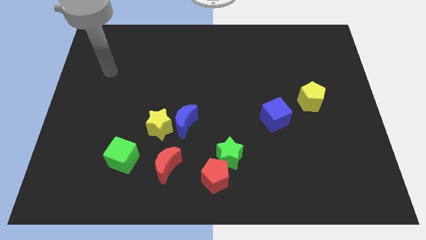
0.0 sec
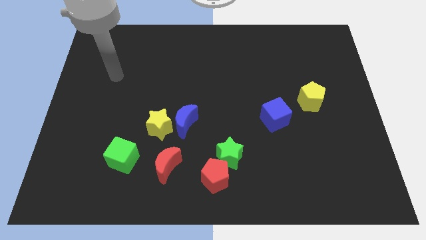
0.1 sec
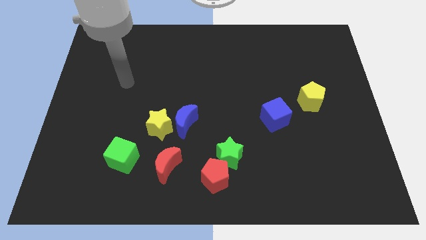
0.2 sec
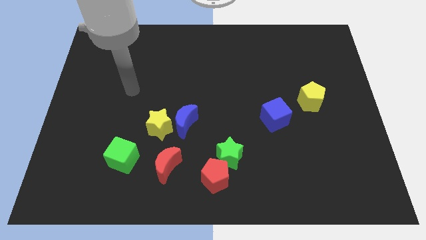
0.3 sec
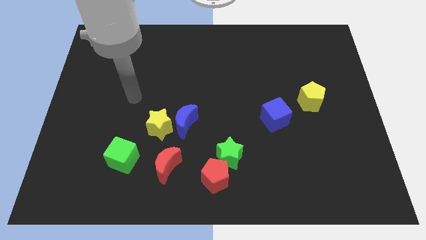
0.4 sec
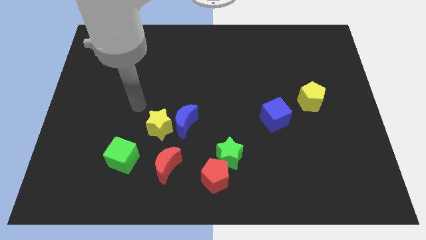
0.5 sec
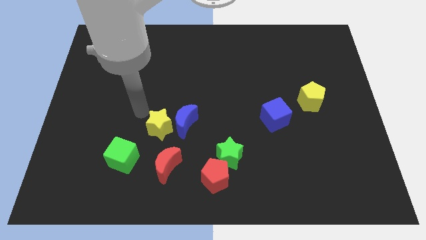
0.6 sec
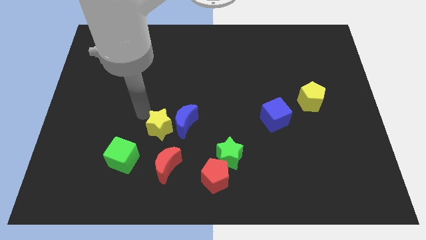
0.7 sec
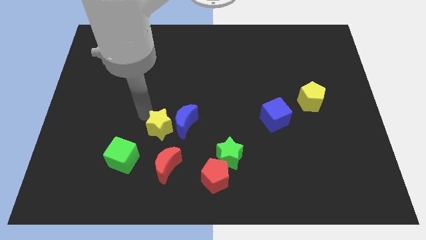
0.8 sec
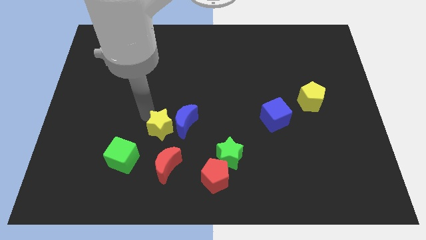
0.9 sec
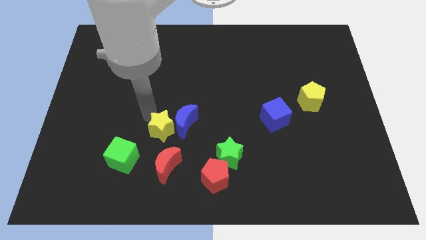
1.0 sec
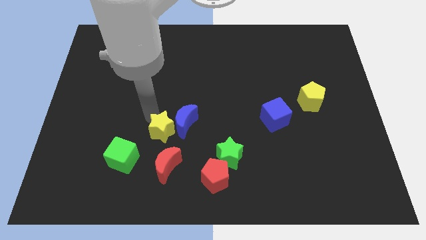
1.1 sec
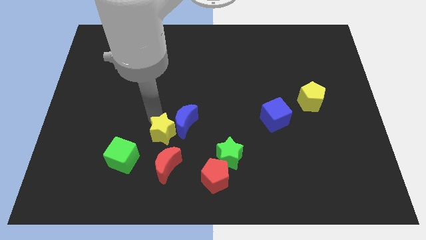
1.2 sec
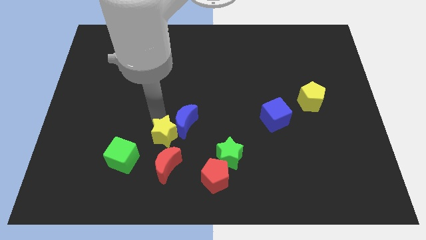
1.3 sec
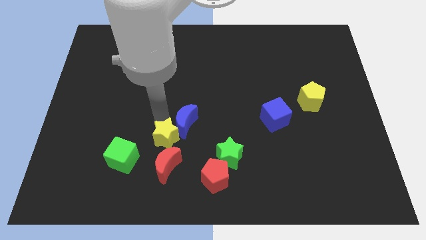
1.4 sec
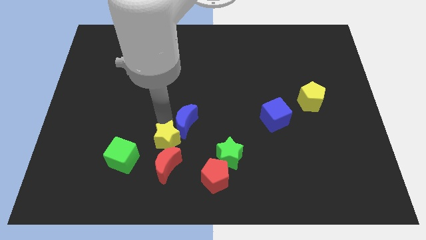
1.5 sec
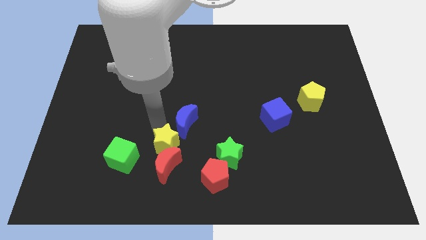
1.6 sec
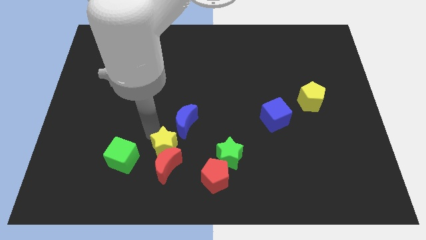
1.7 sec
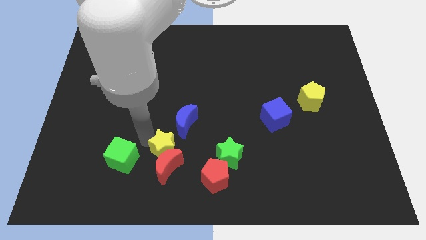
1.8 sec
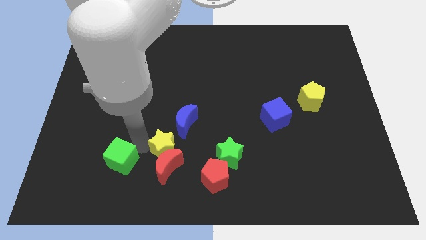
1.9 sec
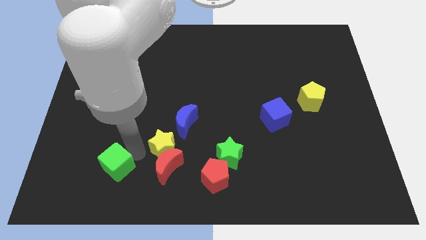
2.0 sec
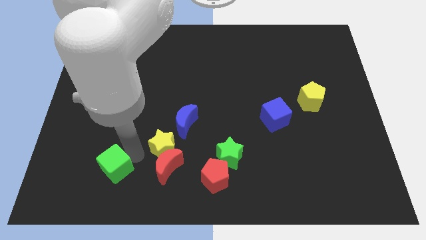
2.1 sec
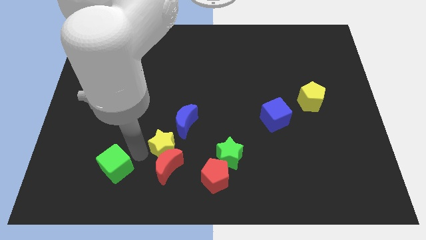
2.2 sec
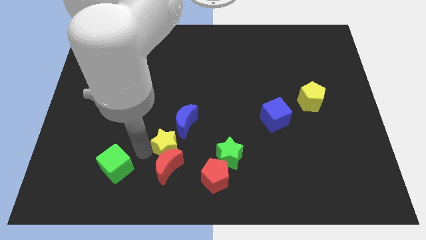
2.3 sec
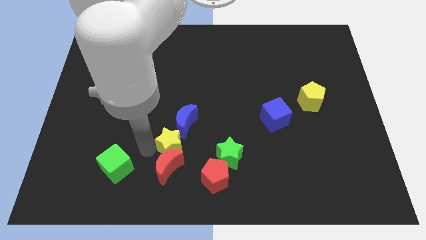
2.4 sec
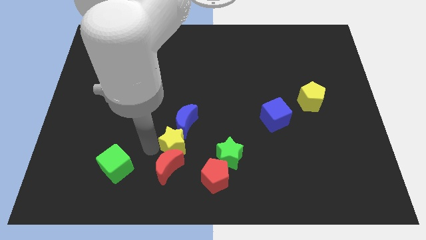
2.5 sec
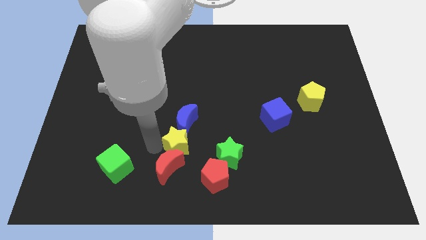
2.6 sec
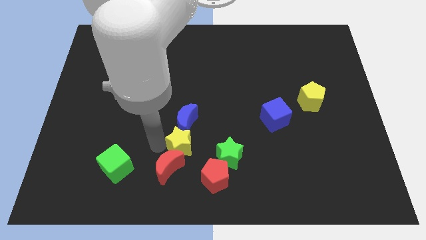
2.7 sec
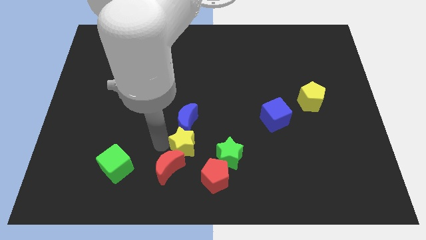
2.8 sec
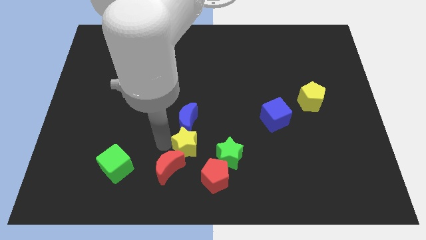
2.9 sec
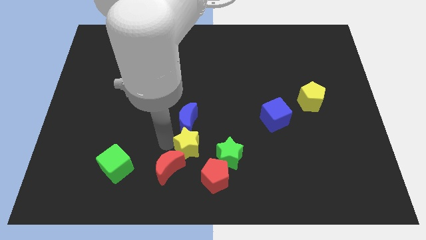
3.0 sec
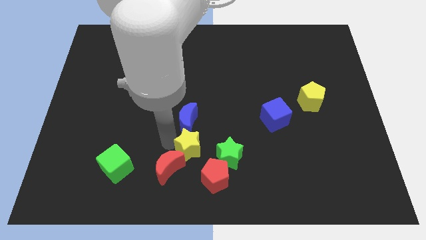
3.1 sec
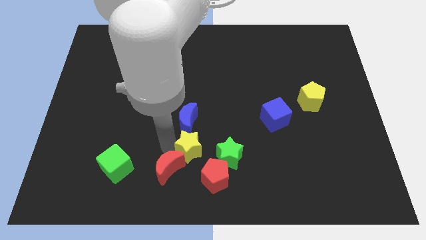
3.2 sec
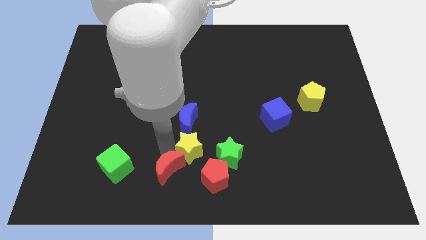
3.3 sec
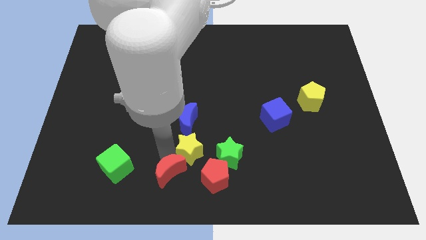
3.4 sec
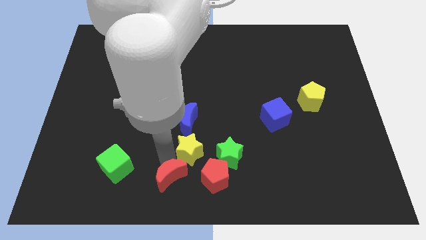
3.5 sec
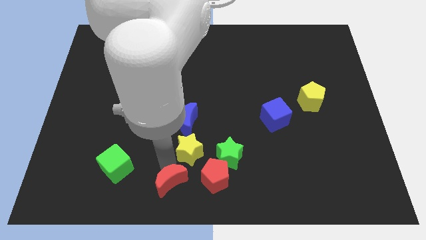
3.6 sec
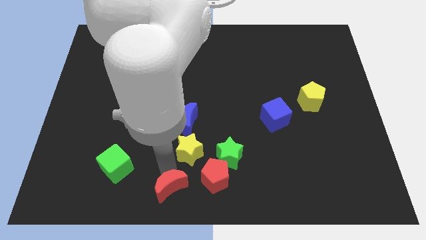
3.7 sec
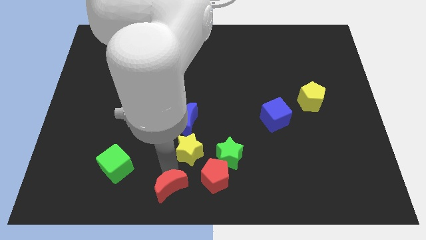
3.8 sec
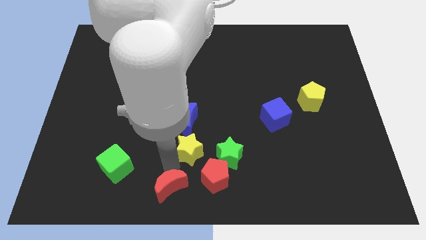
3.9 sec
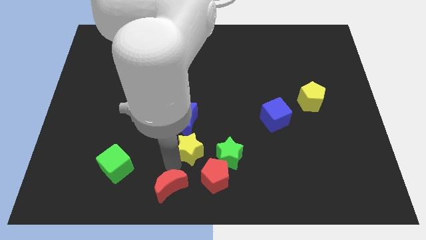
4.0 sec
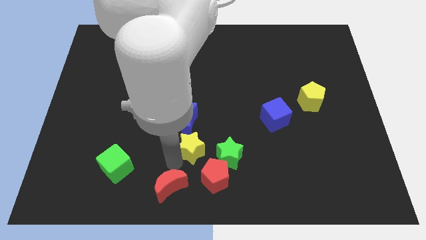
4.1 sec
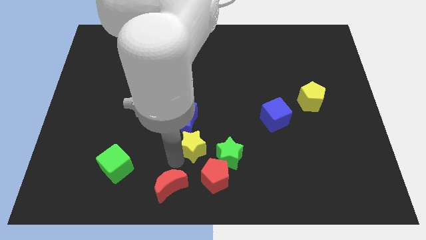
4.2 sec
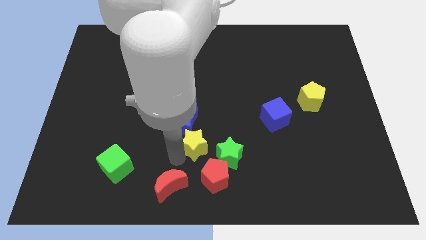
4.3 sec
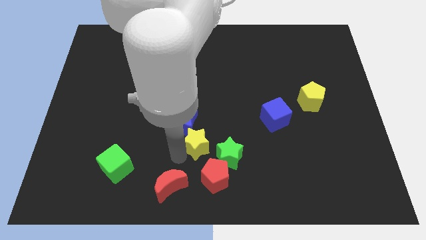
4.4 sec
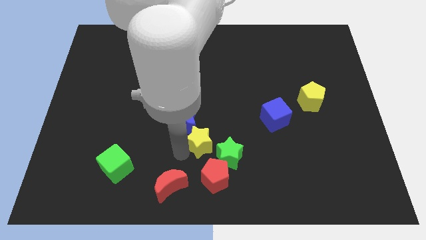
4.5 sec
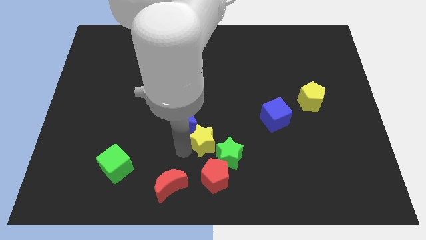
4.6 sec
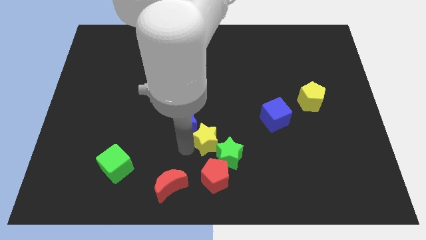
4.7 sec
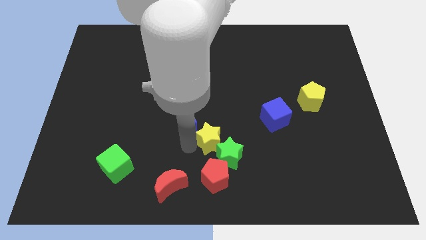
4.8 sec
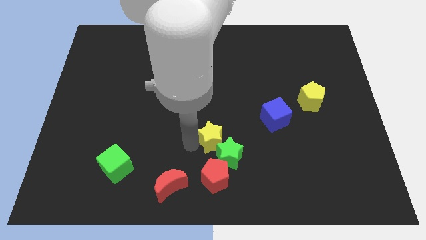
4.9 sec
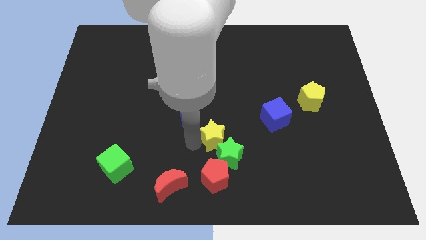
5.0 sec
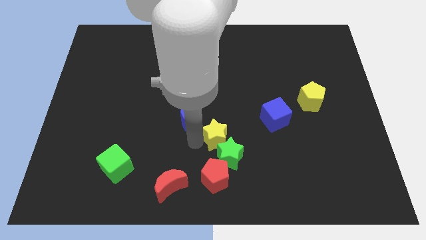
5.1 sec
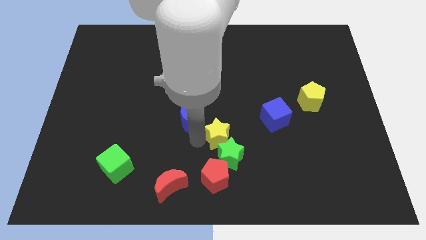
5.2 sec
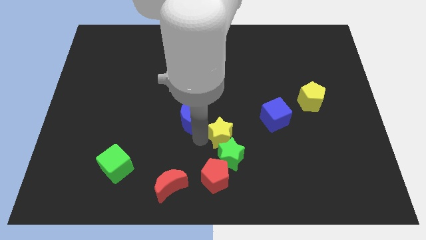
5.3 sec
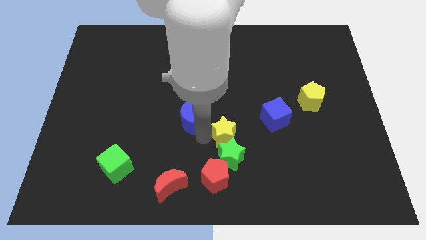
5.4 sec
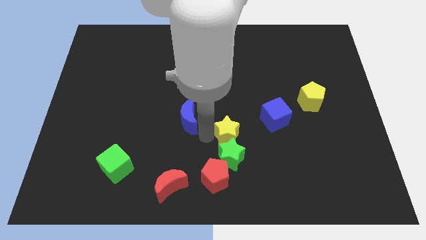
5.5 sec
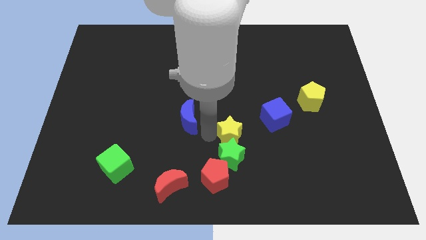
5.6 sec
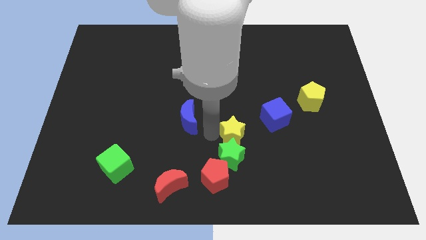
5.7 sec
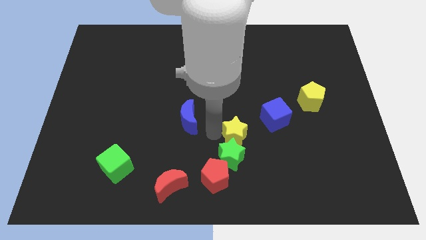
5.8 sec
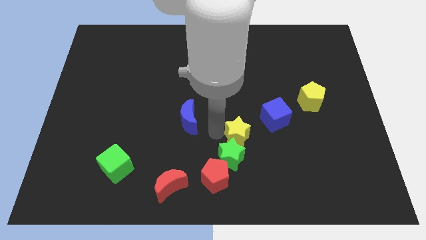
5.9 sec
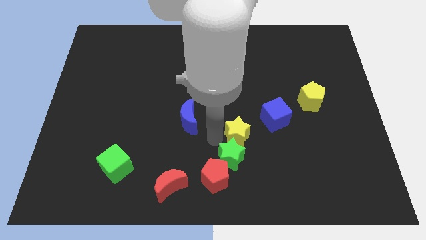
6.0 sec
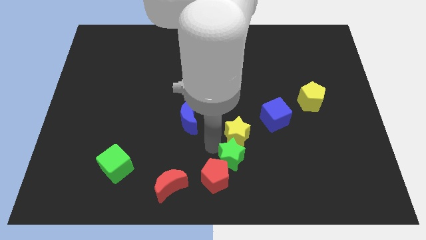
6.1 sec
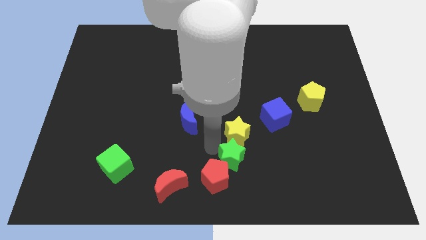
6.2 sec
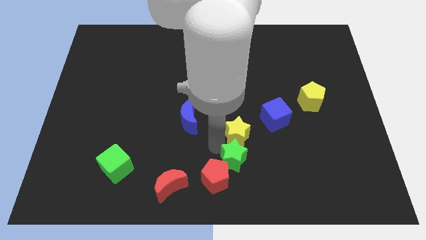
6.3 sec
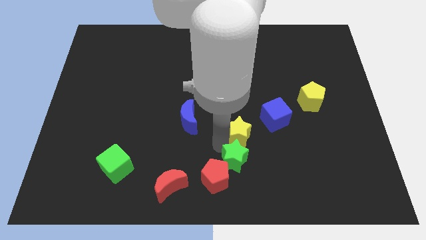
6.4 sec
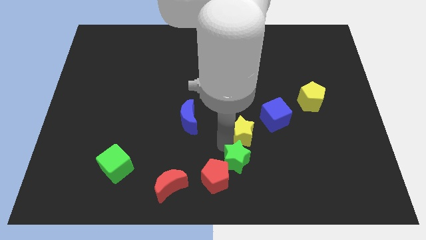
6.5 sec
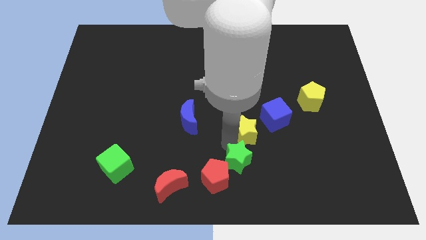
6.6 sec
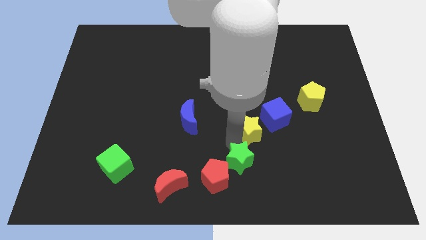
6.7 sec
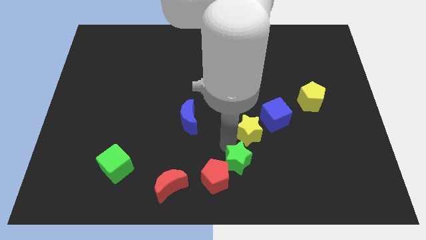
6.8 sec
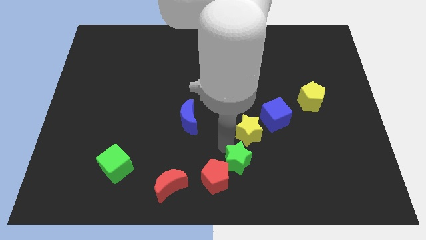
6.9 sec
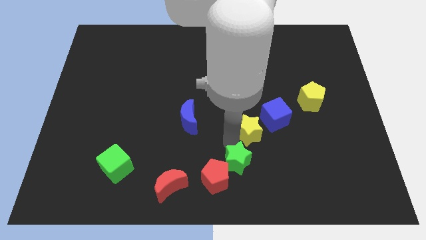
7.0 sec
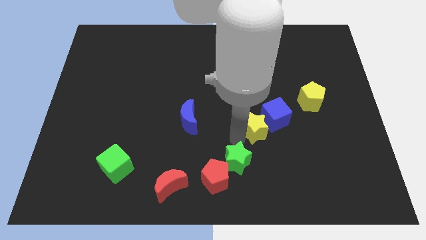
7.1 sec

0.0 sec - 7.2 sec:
slide the yellow star to the blue cube
